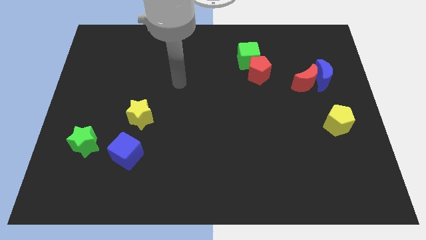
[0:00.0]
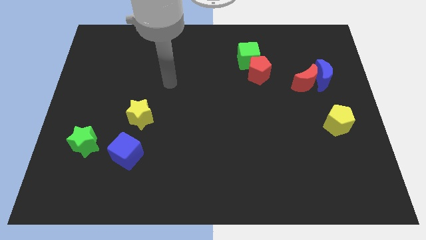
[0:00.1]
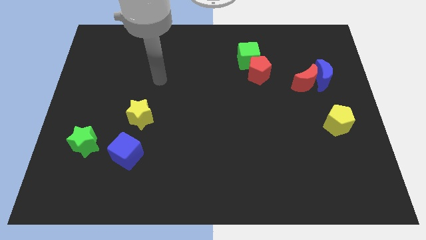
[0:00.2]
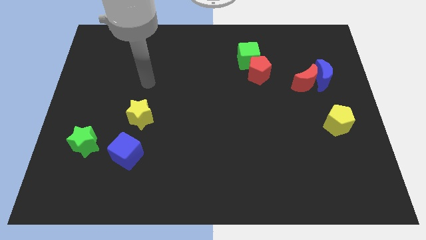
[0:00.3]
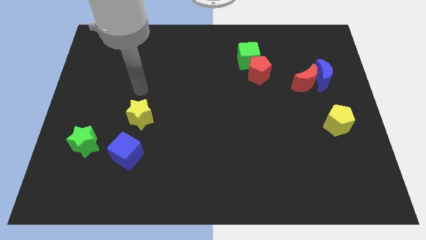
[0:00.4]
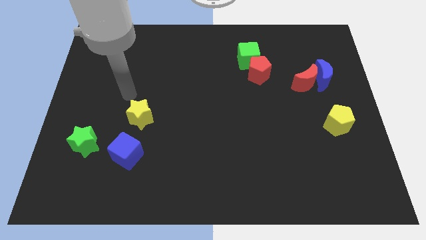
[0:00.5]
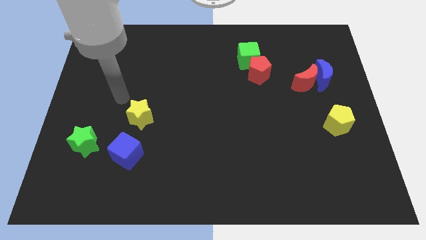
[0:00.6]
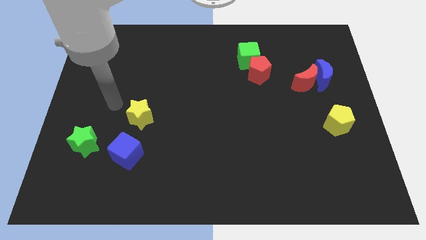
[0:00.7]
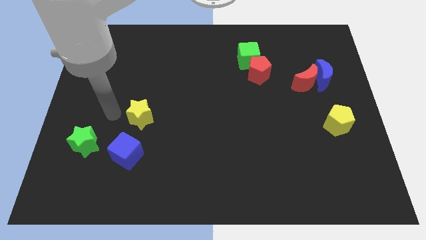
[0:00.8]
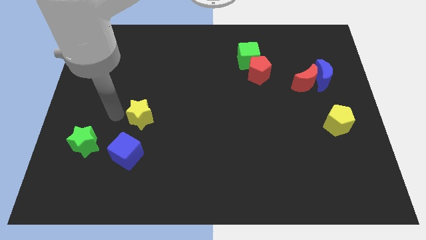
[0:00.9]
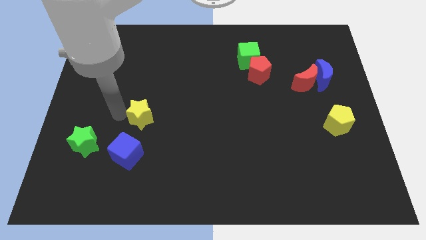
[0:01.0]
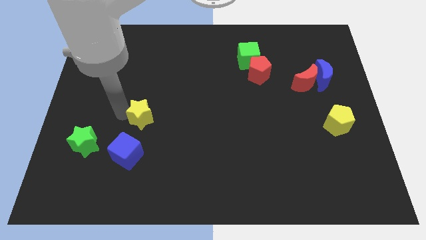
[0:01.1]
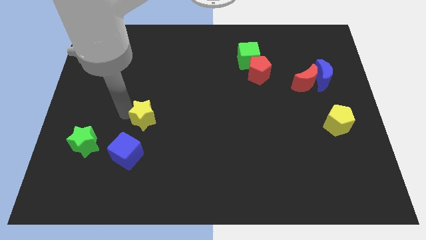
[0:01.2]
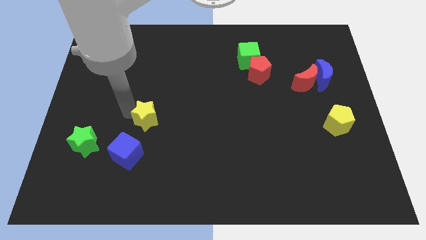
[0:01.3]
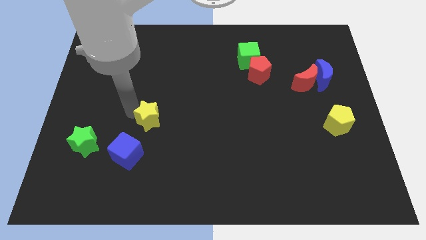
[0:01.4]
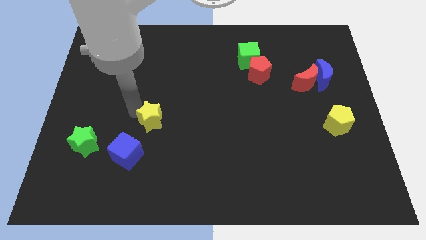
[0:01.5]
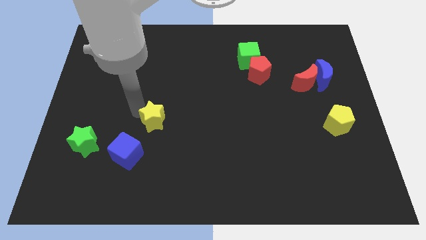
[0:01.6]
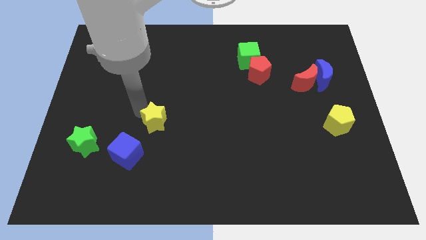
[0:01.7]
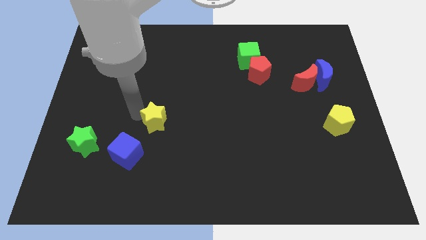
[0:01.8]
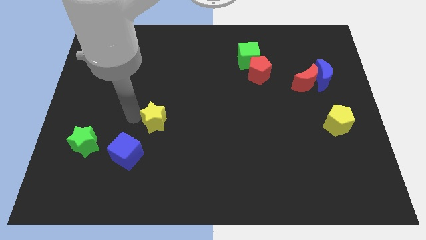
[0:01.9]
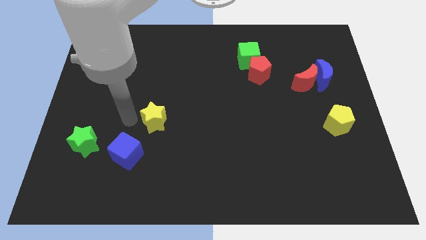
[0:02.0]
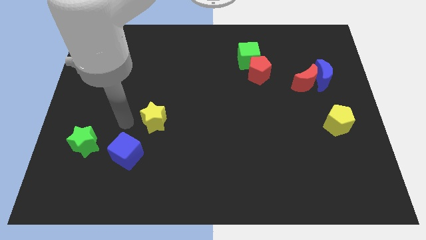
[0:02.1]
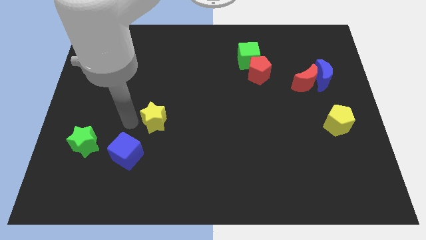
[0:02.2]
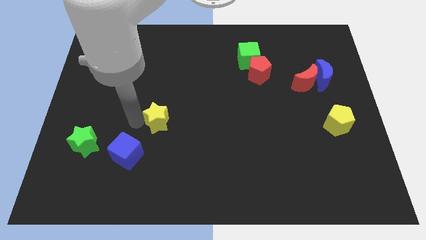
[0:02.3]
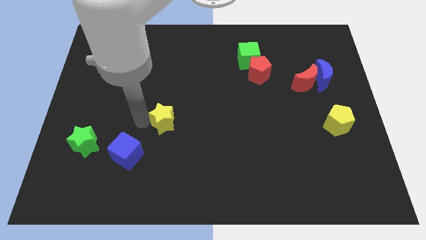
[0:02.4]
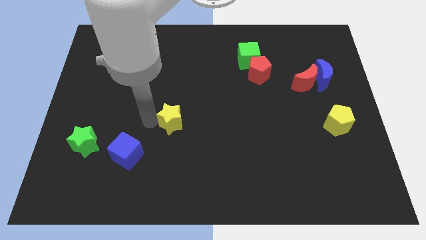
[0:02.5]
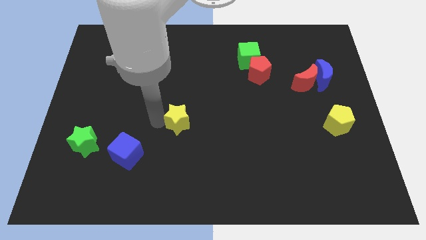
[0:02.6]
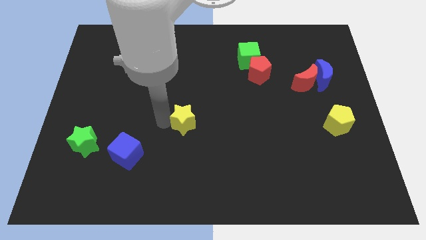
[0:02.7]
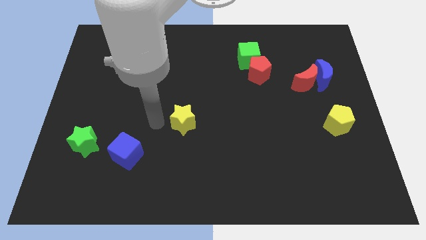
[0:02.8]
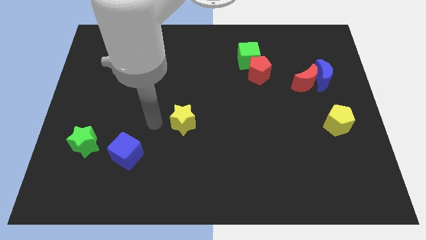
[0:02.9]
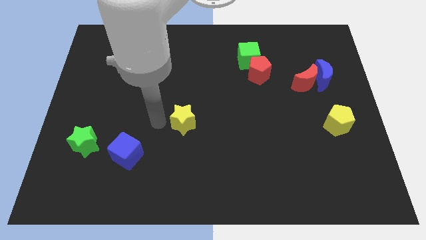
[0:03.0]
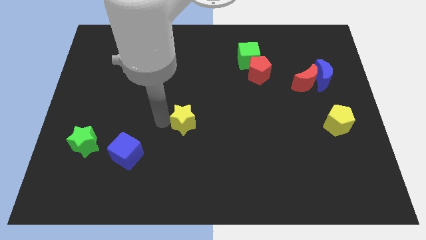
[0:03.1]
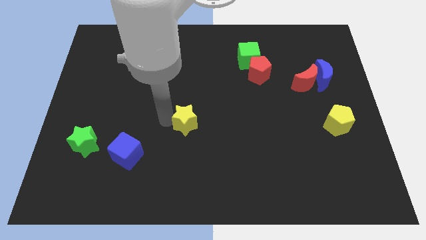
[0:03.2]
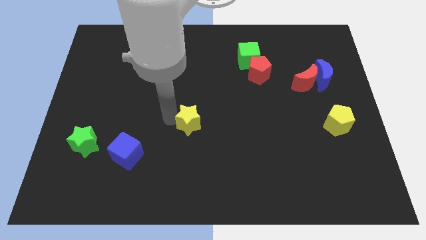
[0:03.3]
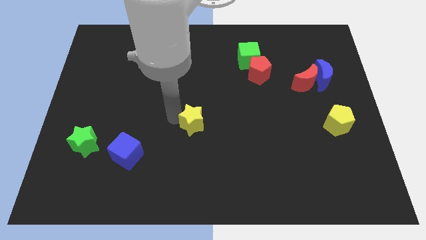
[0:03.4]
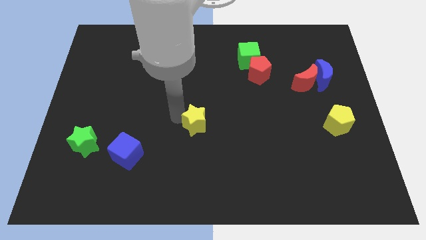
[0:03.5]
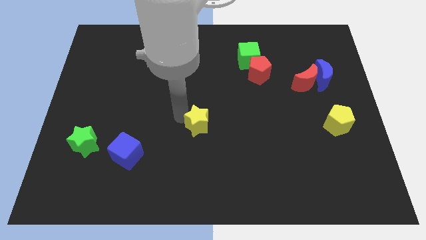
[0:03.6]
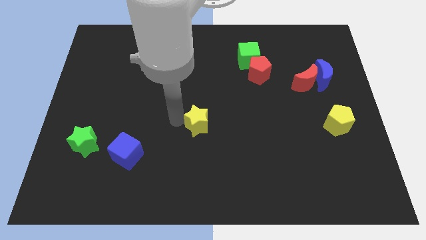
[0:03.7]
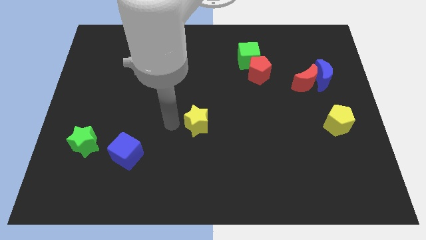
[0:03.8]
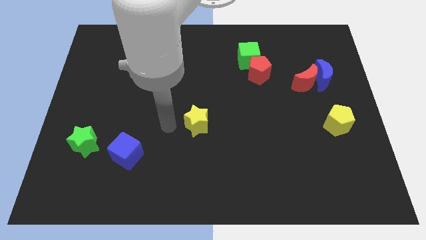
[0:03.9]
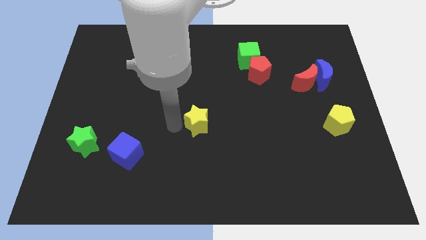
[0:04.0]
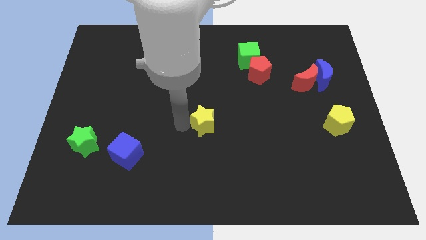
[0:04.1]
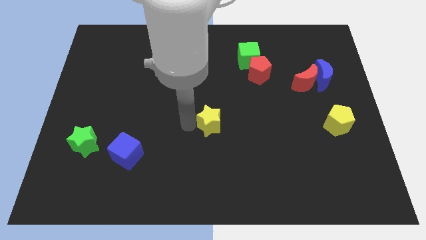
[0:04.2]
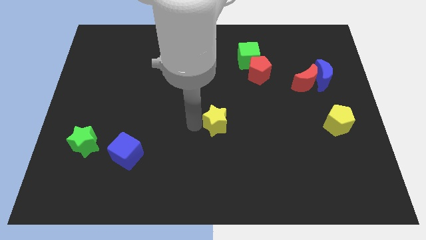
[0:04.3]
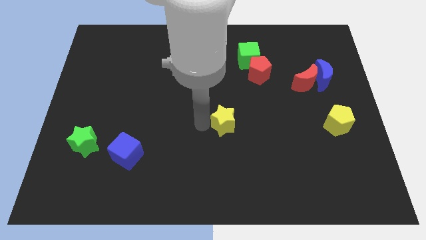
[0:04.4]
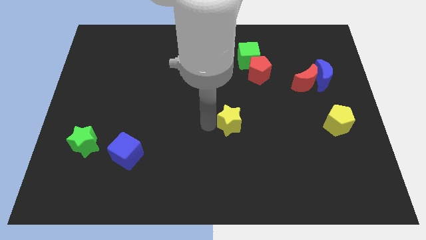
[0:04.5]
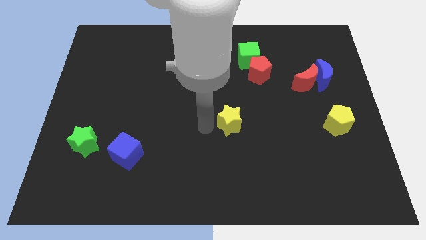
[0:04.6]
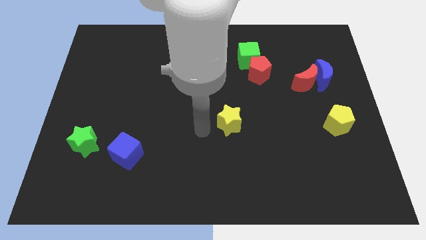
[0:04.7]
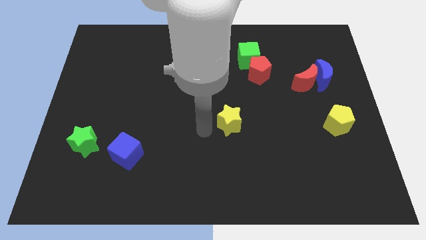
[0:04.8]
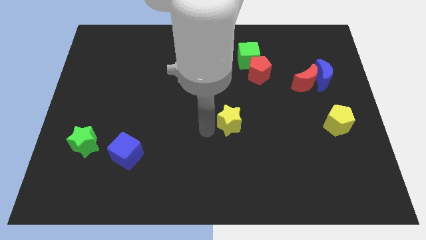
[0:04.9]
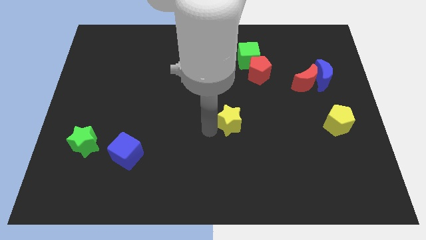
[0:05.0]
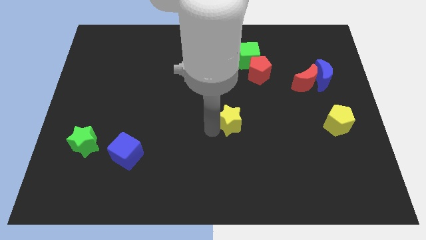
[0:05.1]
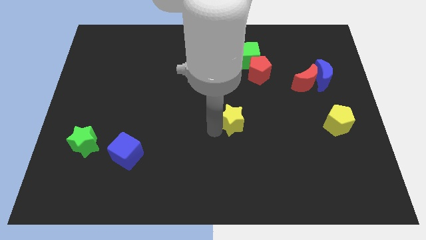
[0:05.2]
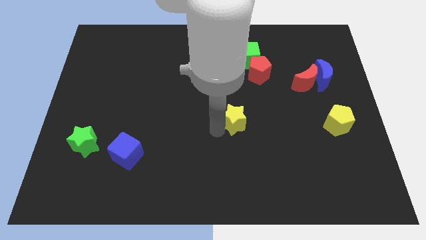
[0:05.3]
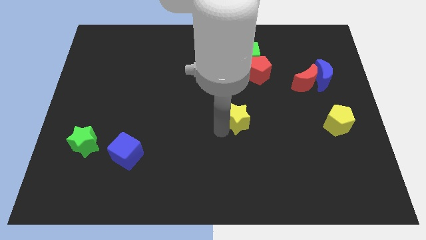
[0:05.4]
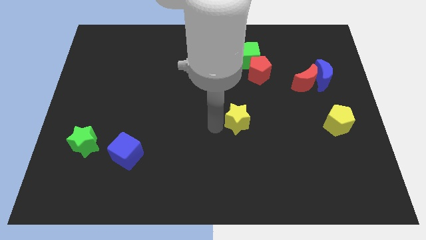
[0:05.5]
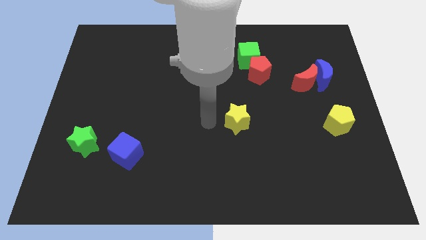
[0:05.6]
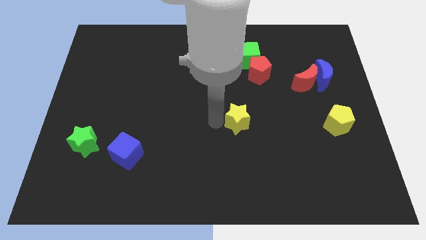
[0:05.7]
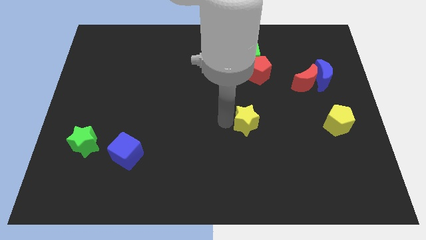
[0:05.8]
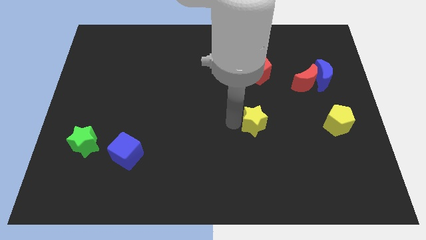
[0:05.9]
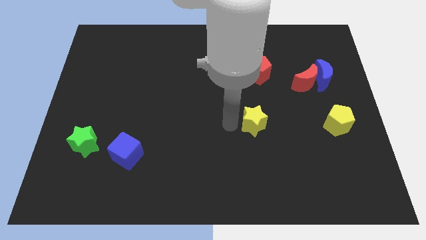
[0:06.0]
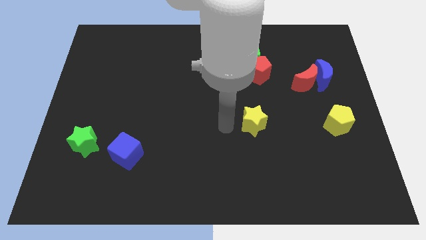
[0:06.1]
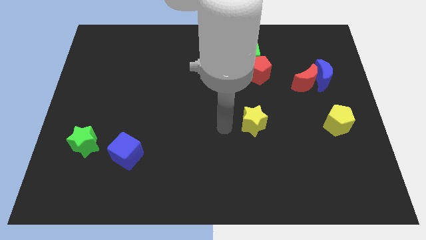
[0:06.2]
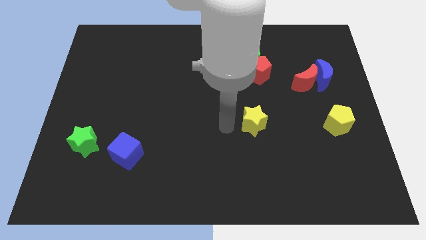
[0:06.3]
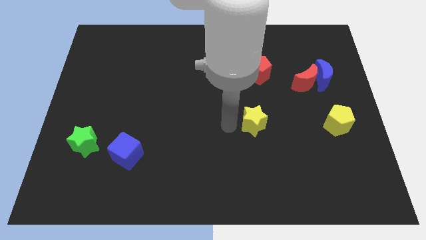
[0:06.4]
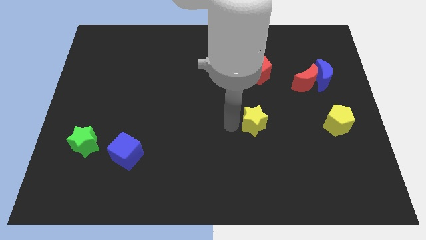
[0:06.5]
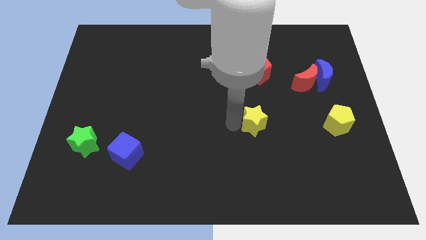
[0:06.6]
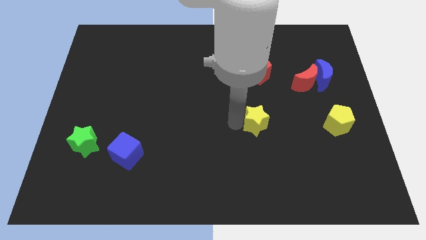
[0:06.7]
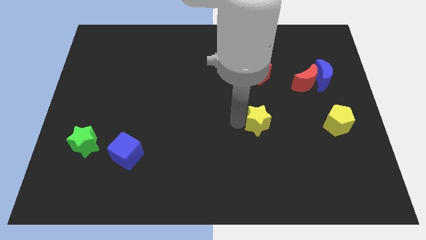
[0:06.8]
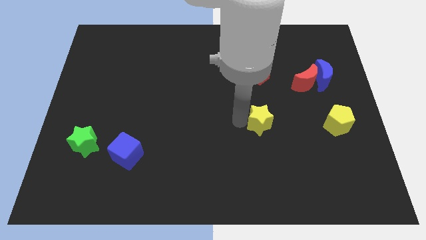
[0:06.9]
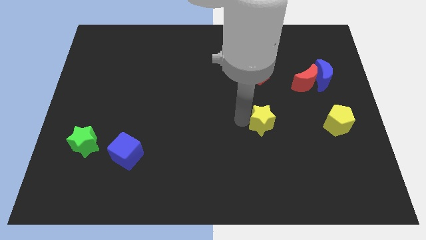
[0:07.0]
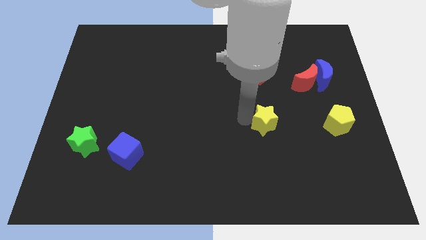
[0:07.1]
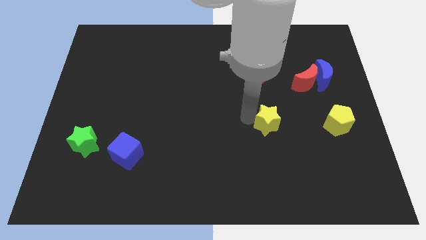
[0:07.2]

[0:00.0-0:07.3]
push the yellow star to the left side of the yellow pentagon
